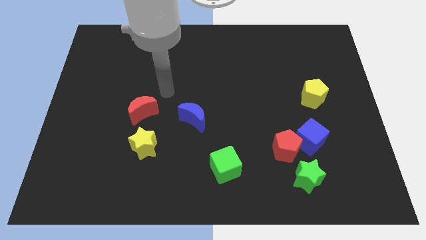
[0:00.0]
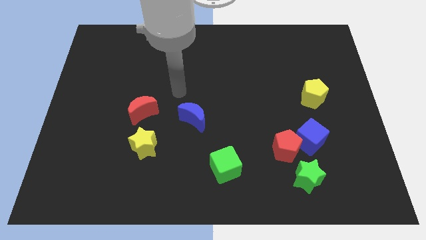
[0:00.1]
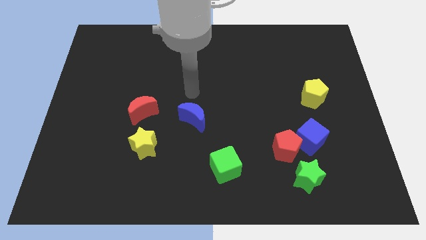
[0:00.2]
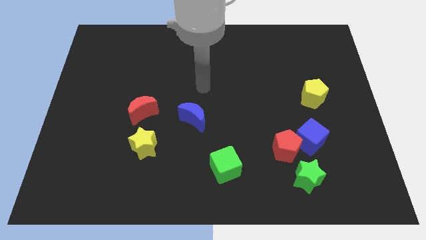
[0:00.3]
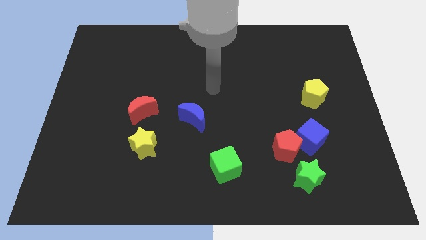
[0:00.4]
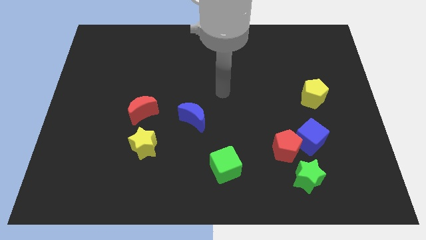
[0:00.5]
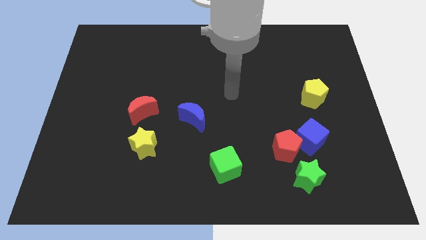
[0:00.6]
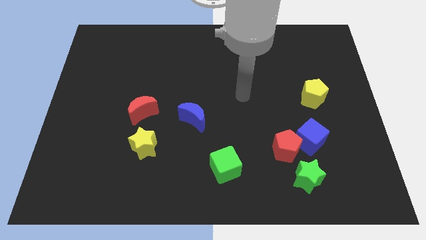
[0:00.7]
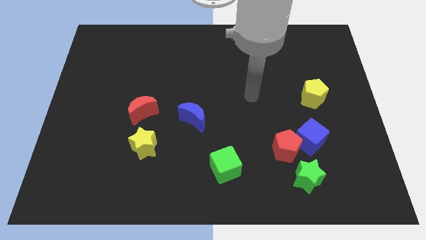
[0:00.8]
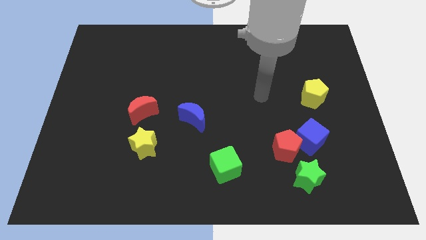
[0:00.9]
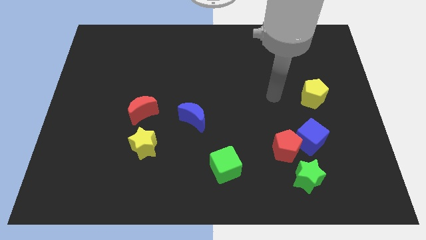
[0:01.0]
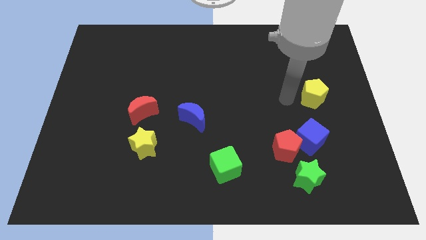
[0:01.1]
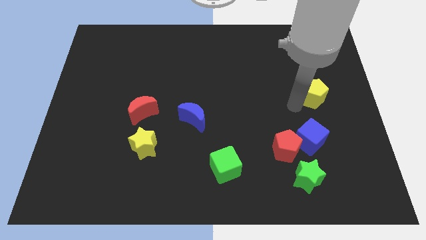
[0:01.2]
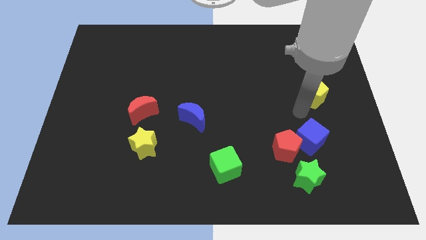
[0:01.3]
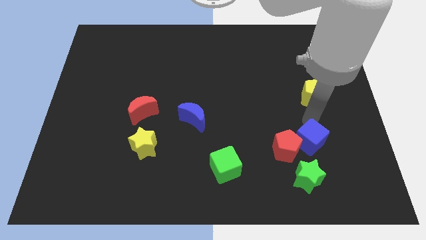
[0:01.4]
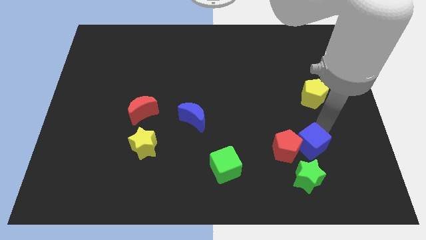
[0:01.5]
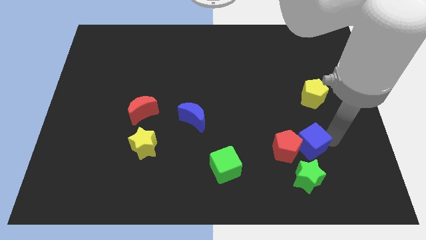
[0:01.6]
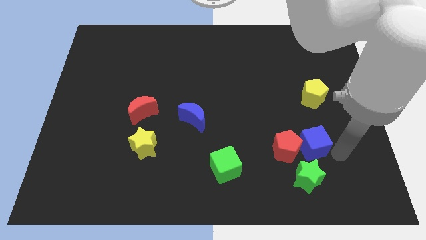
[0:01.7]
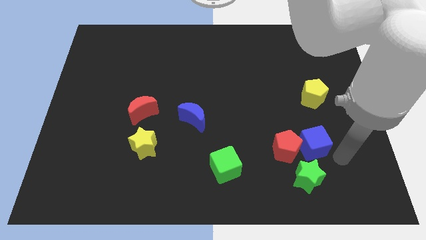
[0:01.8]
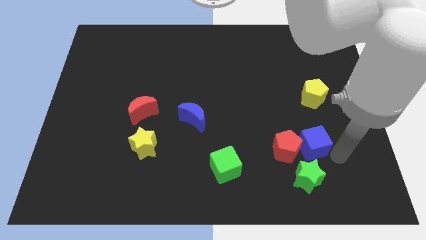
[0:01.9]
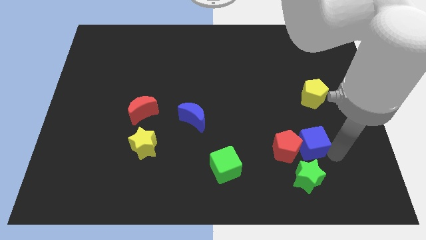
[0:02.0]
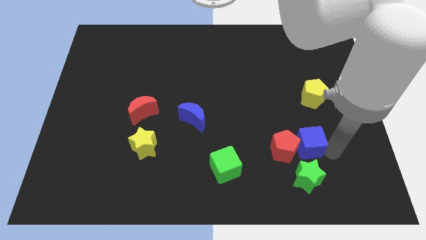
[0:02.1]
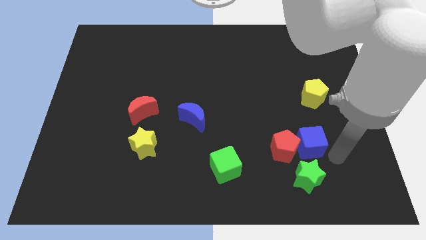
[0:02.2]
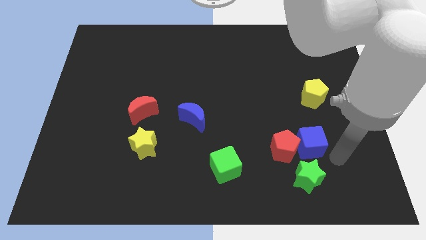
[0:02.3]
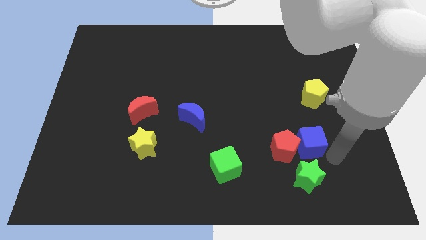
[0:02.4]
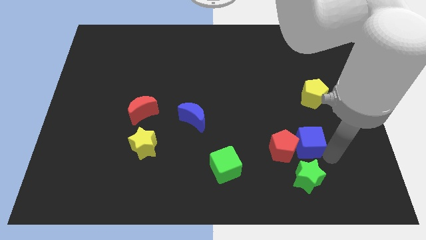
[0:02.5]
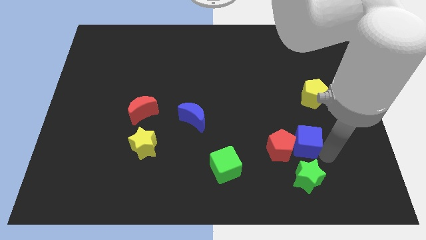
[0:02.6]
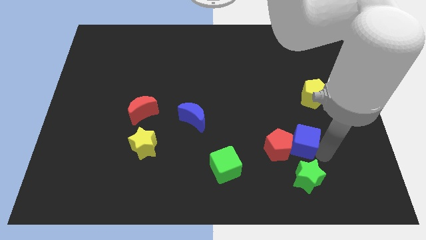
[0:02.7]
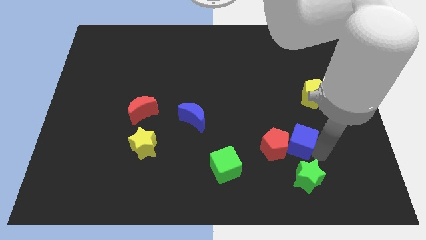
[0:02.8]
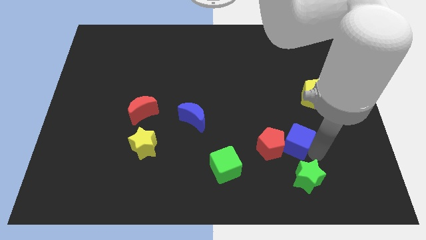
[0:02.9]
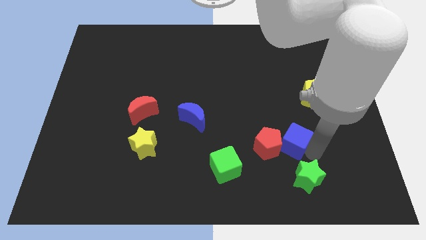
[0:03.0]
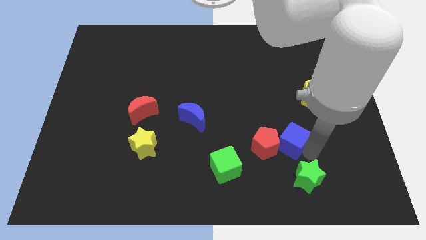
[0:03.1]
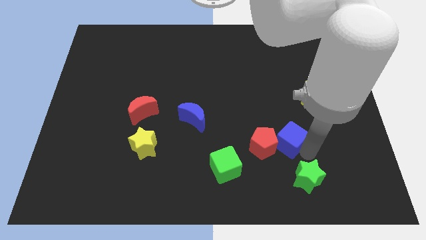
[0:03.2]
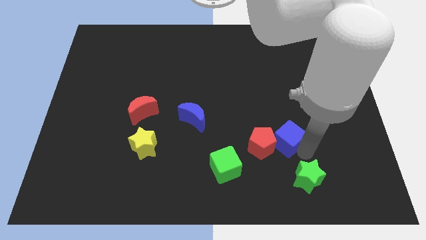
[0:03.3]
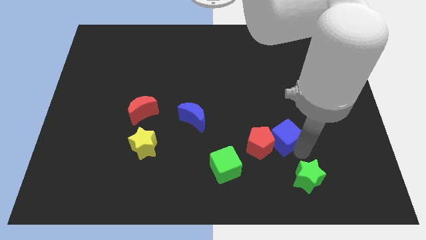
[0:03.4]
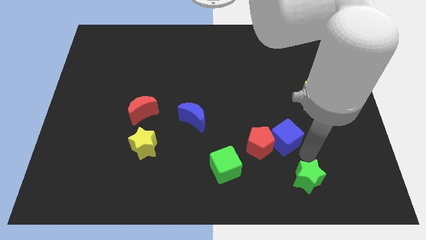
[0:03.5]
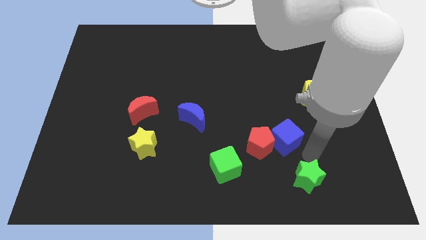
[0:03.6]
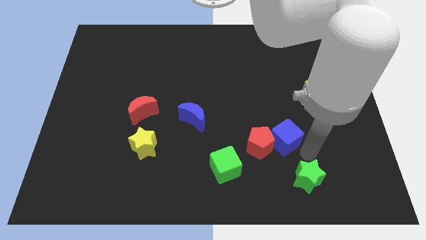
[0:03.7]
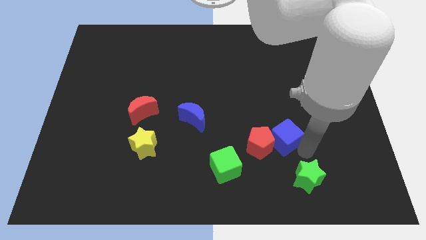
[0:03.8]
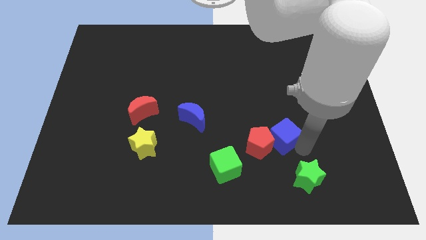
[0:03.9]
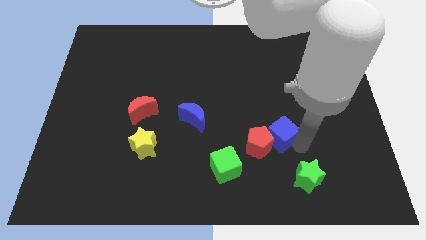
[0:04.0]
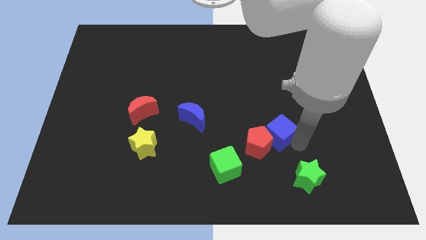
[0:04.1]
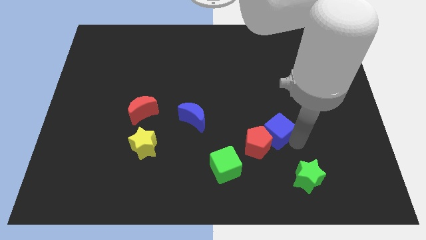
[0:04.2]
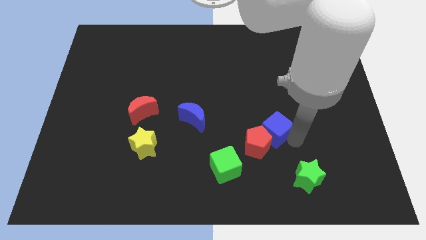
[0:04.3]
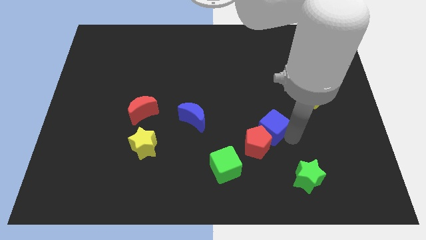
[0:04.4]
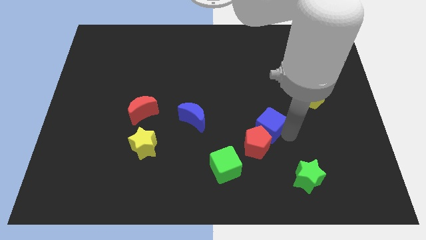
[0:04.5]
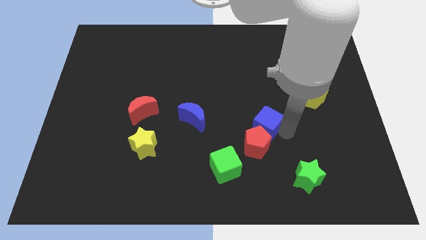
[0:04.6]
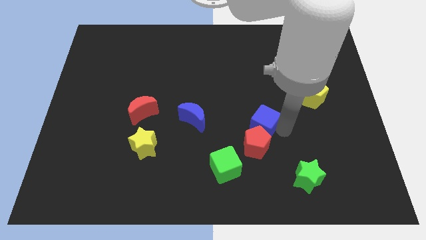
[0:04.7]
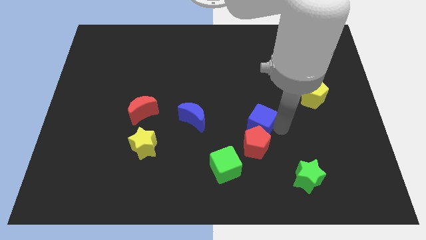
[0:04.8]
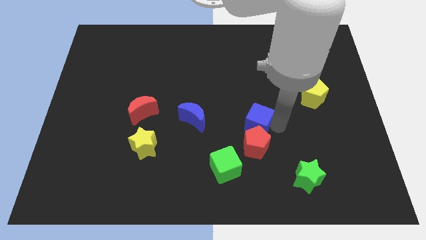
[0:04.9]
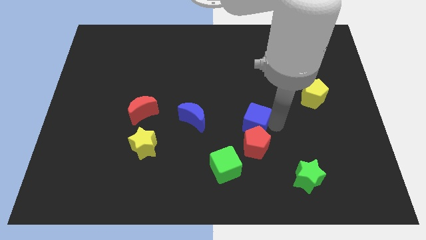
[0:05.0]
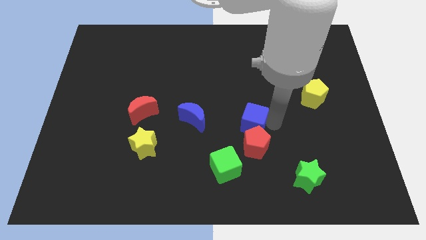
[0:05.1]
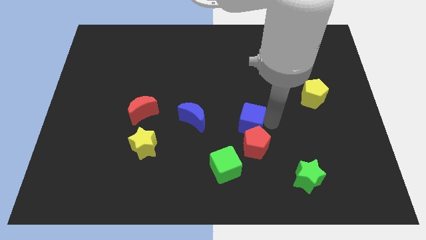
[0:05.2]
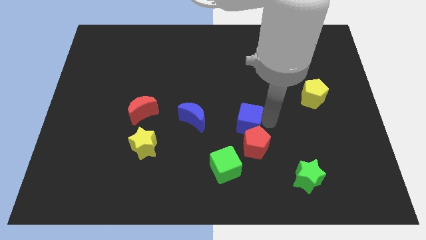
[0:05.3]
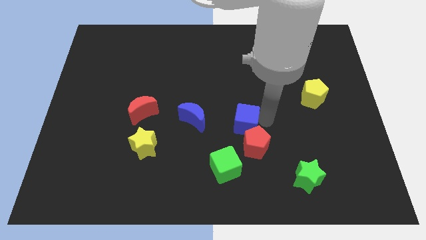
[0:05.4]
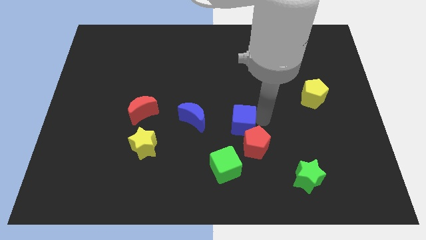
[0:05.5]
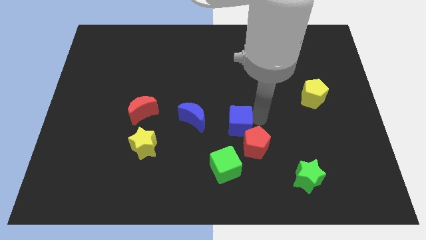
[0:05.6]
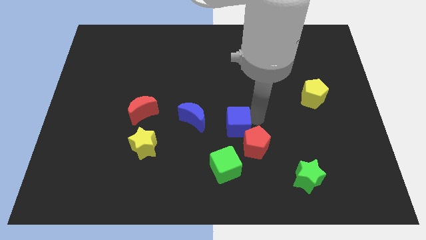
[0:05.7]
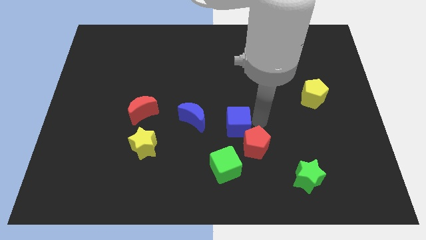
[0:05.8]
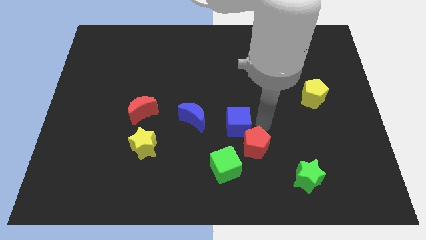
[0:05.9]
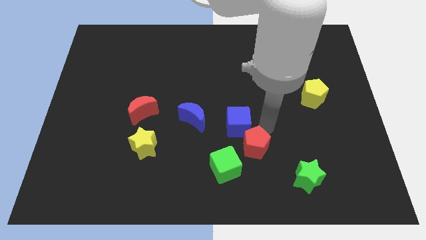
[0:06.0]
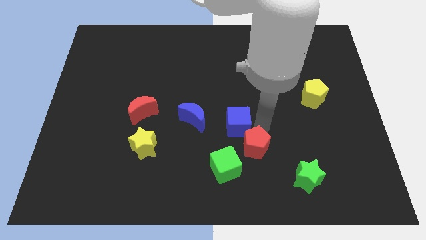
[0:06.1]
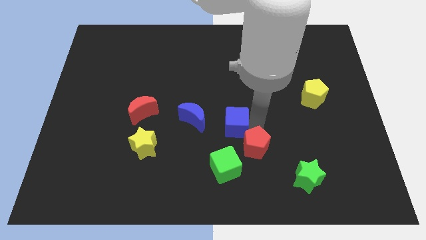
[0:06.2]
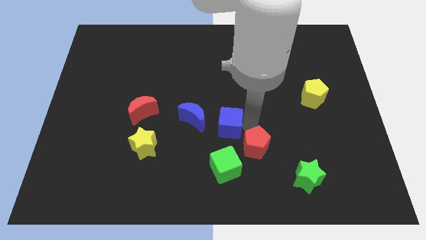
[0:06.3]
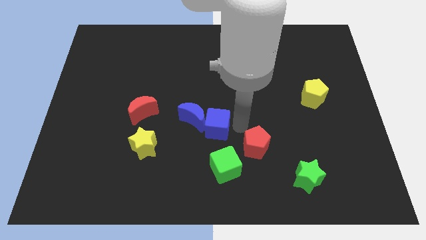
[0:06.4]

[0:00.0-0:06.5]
slide the blue cube close to the blue moon

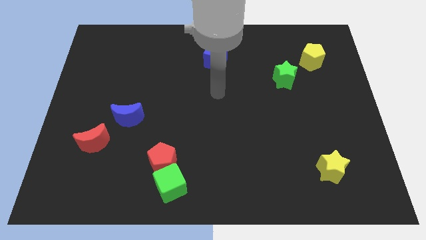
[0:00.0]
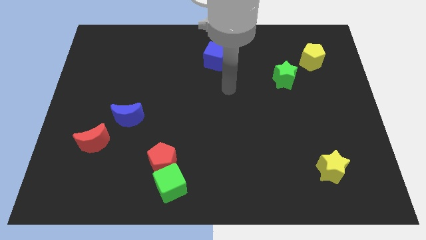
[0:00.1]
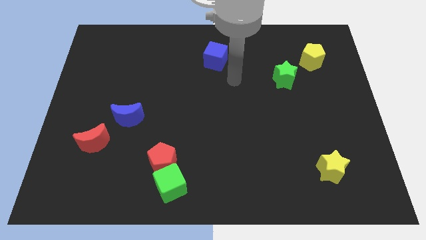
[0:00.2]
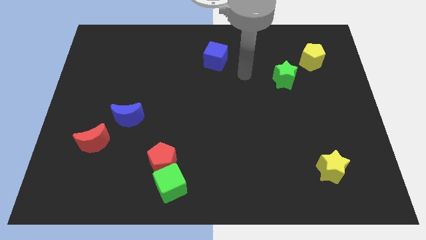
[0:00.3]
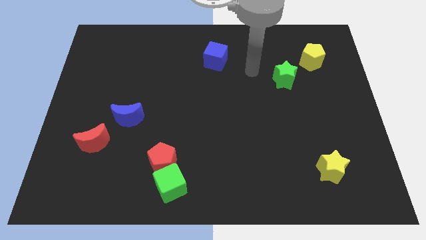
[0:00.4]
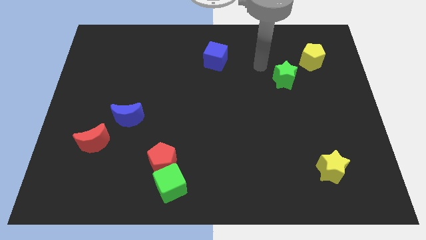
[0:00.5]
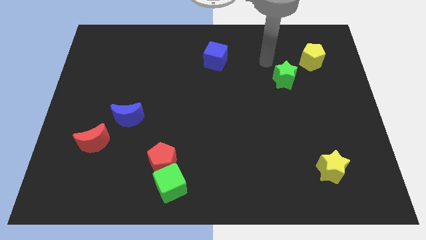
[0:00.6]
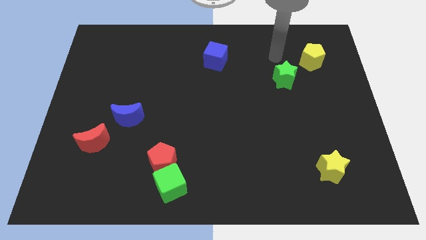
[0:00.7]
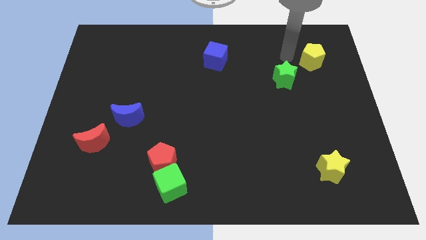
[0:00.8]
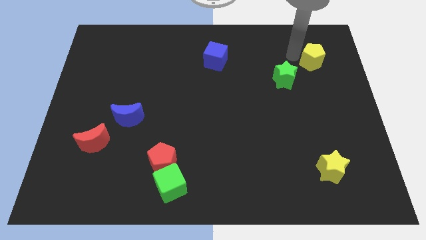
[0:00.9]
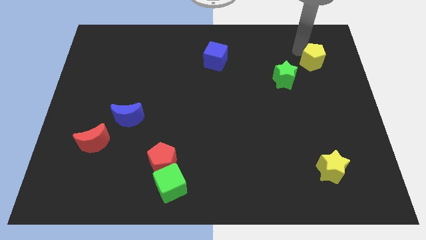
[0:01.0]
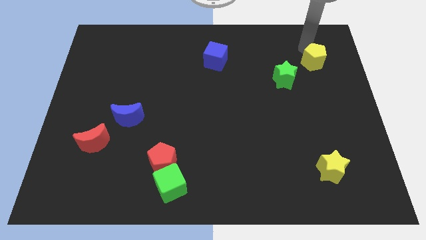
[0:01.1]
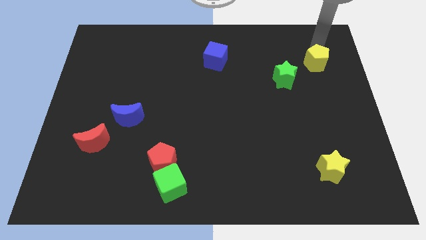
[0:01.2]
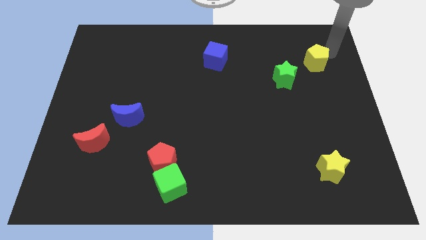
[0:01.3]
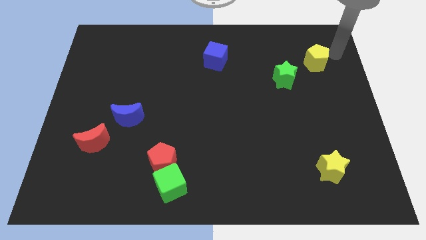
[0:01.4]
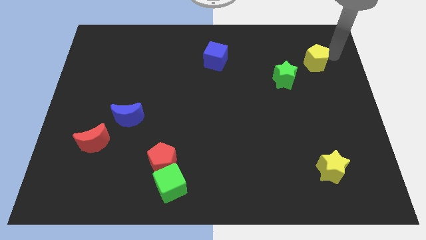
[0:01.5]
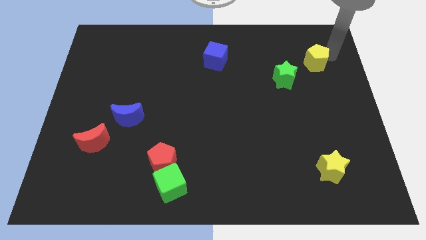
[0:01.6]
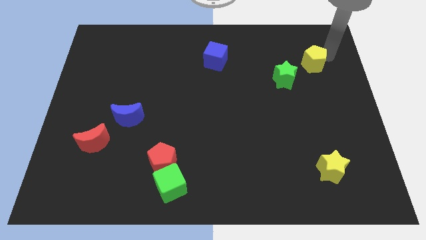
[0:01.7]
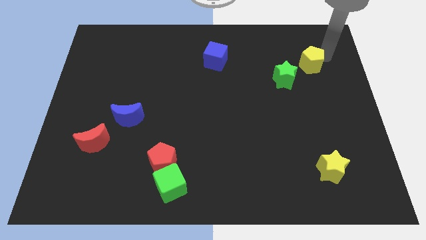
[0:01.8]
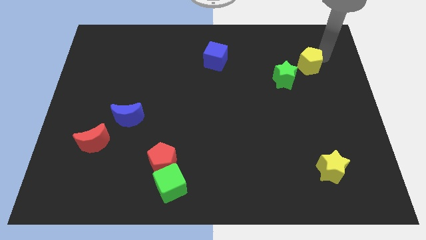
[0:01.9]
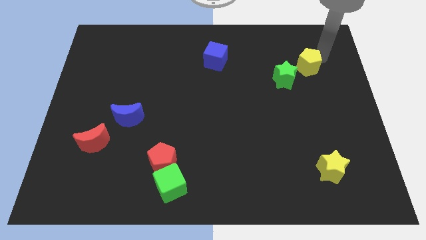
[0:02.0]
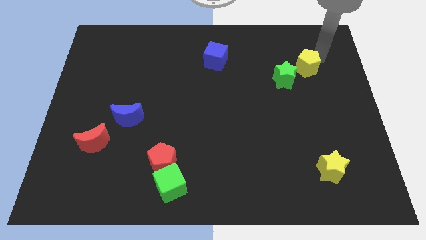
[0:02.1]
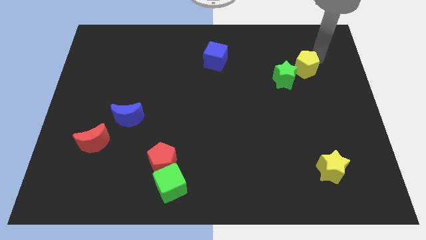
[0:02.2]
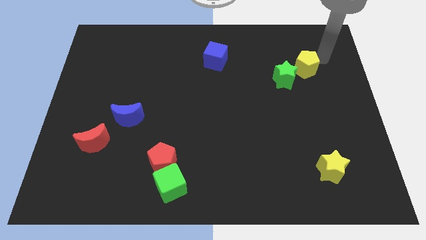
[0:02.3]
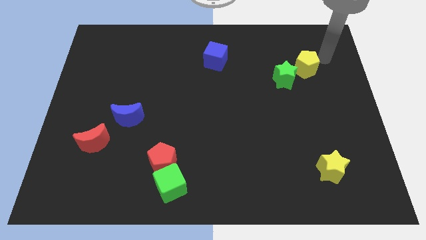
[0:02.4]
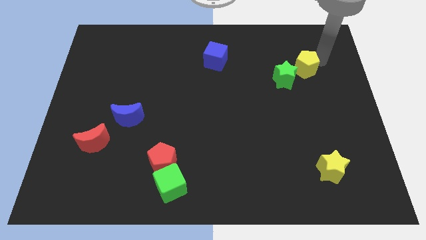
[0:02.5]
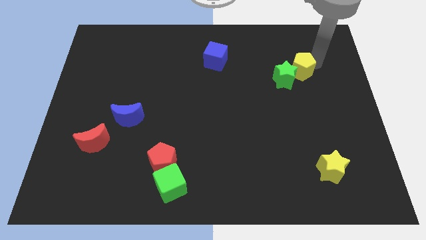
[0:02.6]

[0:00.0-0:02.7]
push the yellow pentagon to the green star
